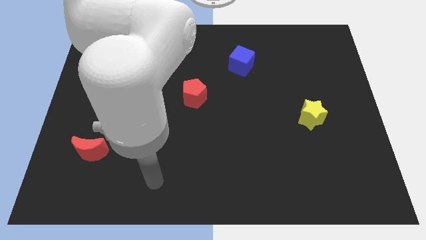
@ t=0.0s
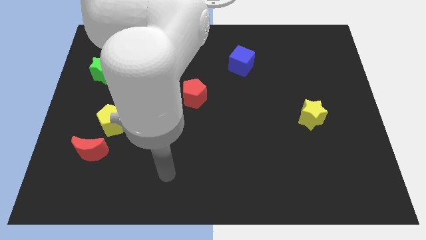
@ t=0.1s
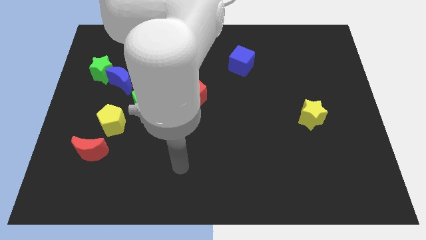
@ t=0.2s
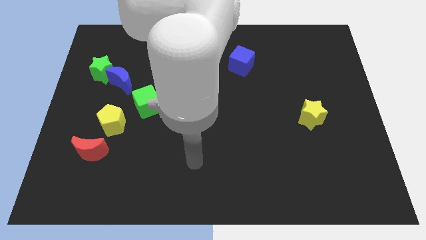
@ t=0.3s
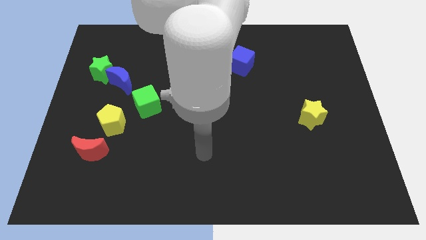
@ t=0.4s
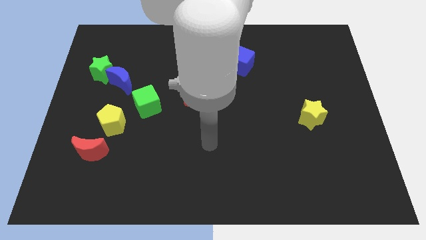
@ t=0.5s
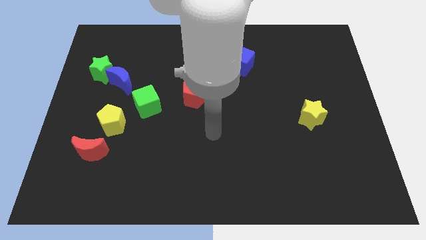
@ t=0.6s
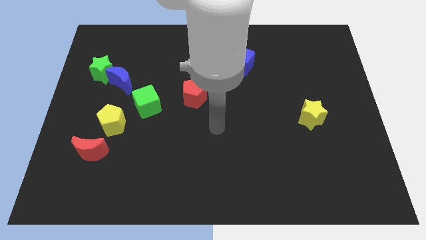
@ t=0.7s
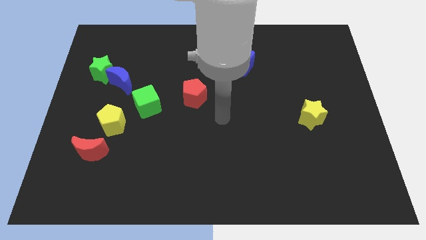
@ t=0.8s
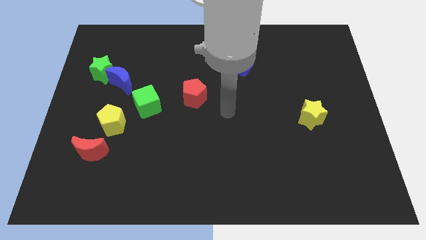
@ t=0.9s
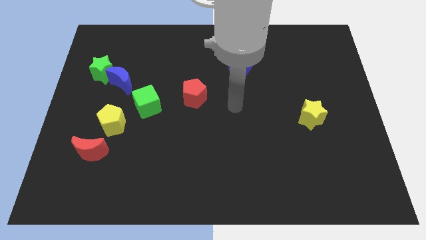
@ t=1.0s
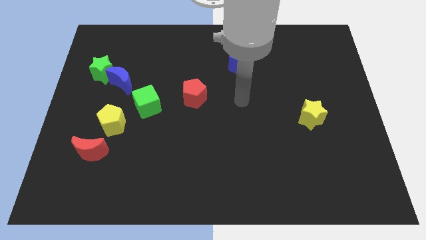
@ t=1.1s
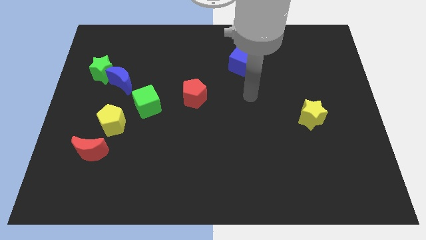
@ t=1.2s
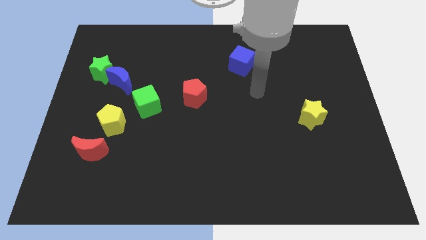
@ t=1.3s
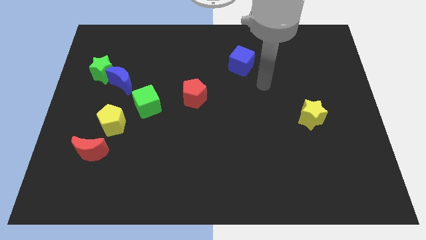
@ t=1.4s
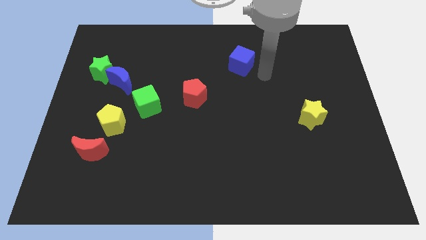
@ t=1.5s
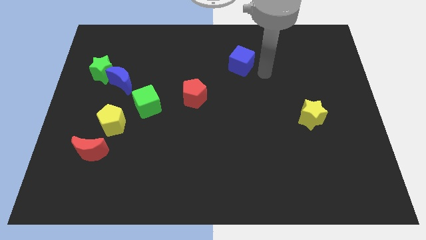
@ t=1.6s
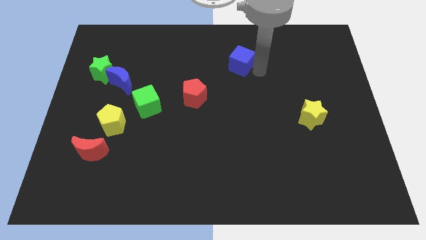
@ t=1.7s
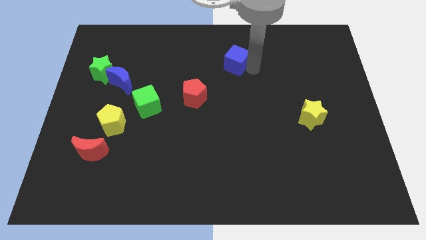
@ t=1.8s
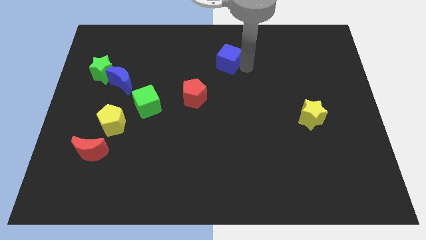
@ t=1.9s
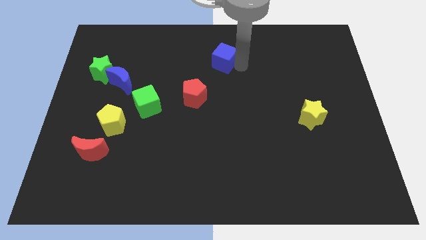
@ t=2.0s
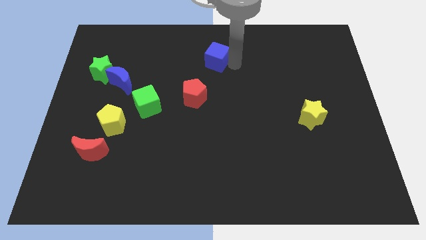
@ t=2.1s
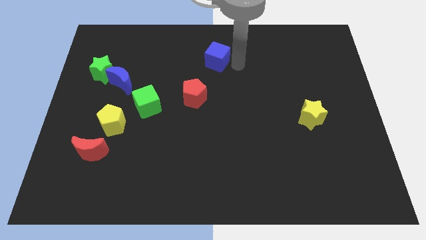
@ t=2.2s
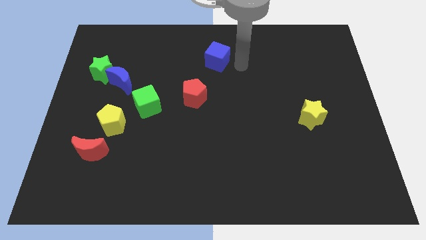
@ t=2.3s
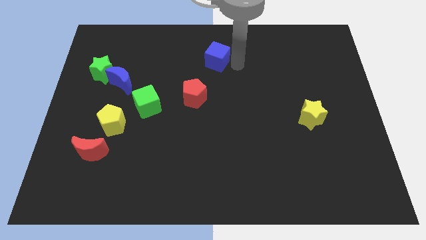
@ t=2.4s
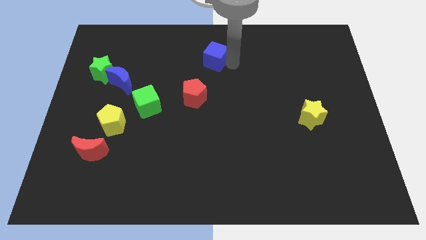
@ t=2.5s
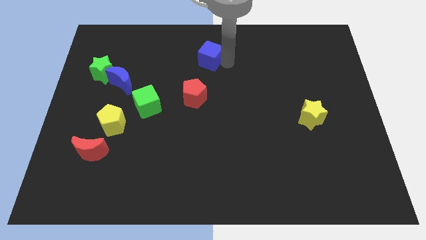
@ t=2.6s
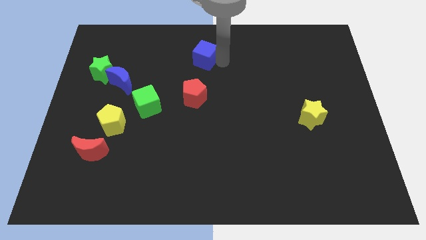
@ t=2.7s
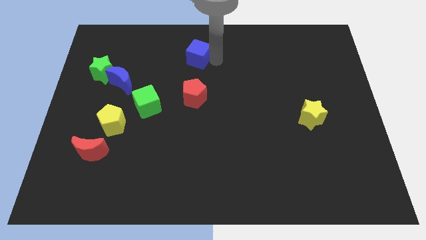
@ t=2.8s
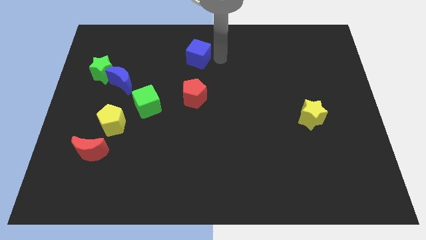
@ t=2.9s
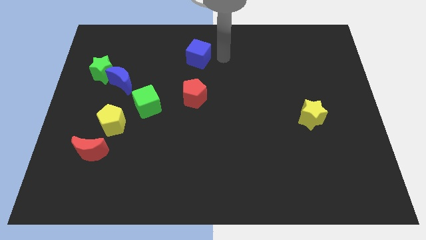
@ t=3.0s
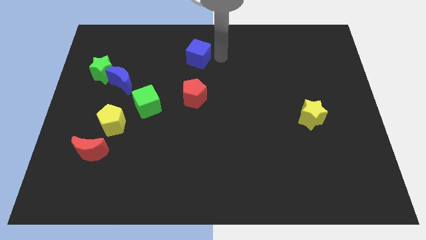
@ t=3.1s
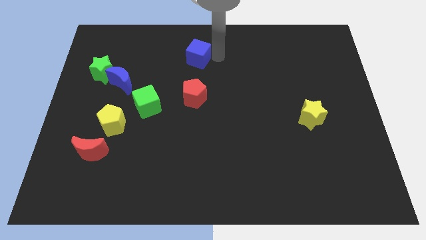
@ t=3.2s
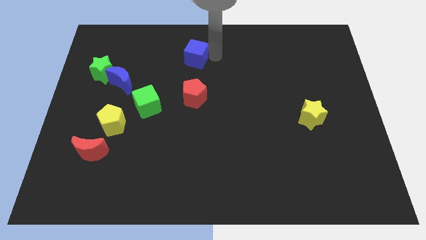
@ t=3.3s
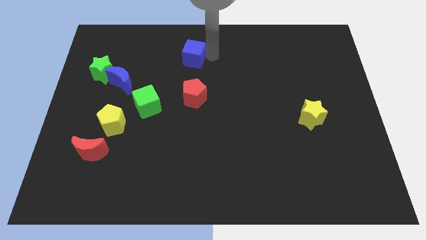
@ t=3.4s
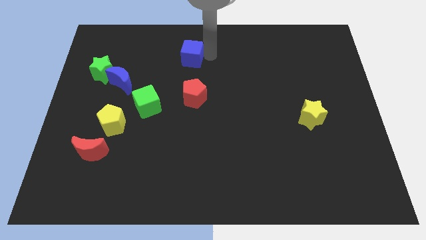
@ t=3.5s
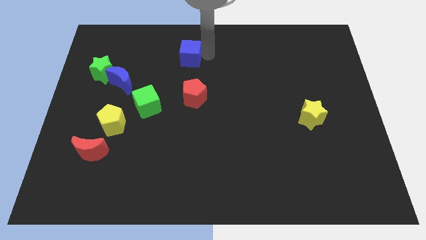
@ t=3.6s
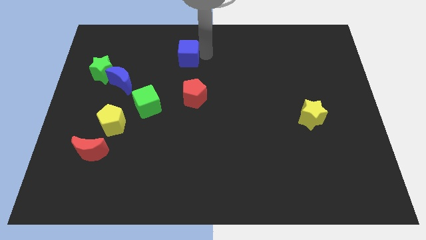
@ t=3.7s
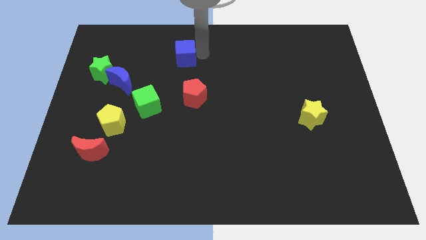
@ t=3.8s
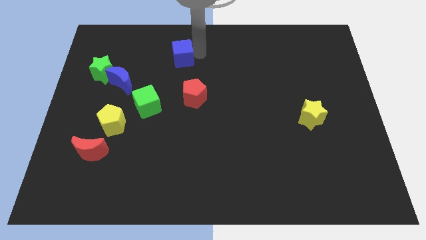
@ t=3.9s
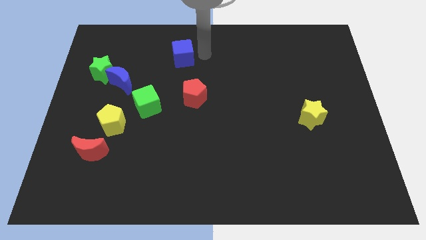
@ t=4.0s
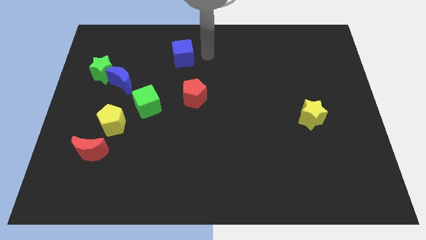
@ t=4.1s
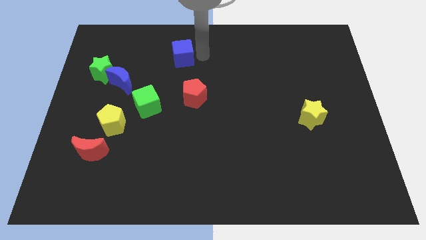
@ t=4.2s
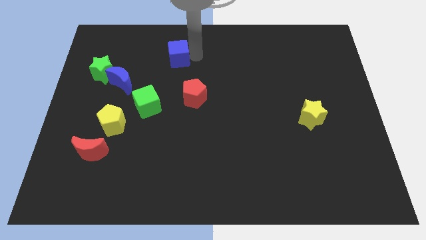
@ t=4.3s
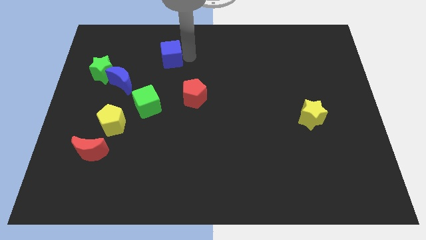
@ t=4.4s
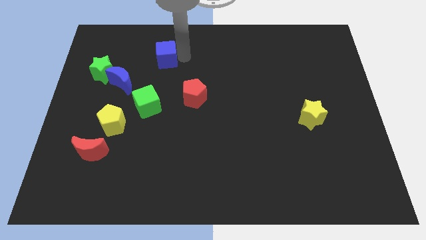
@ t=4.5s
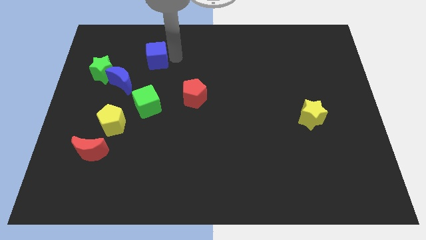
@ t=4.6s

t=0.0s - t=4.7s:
push the blue cube to the left

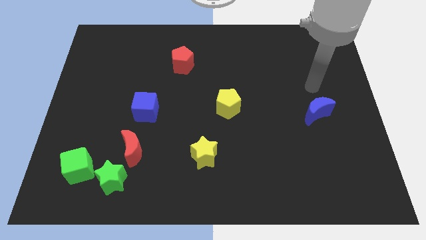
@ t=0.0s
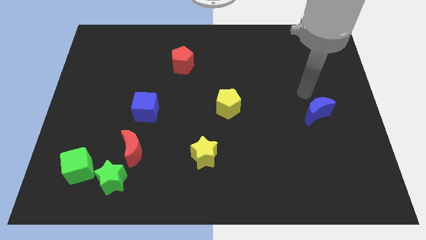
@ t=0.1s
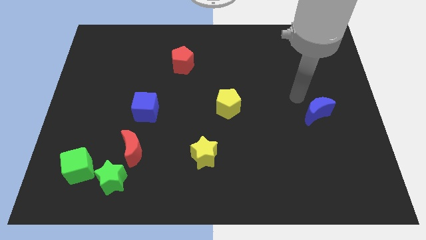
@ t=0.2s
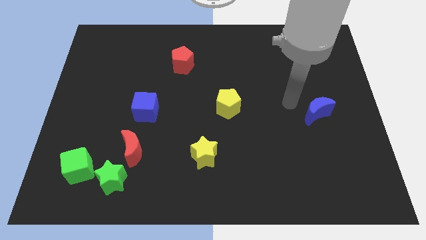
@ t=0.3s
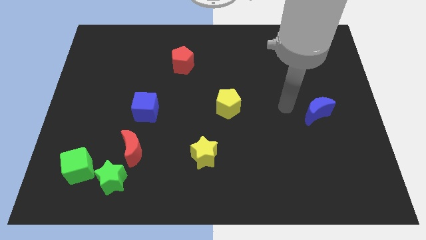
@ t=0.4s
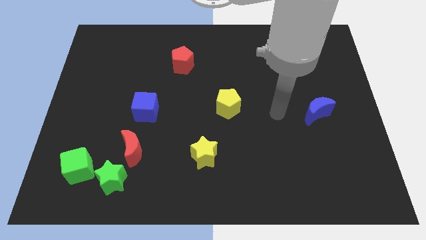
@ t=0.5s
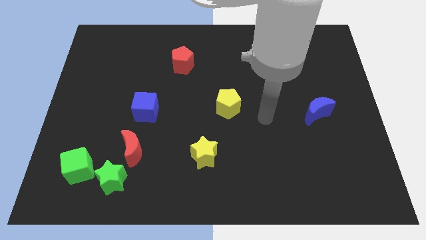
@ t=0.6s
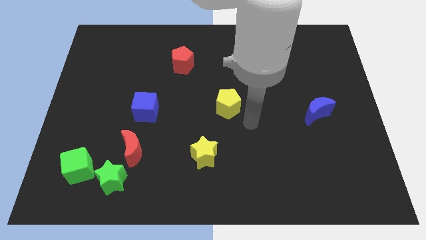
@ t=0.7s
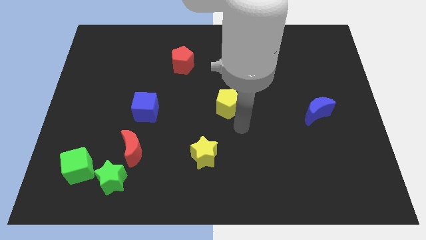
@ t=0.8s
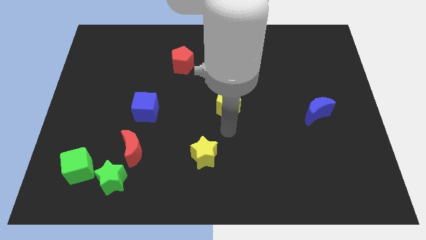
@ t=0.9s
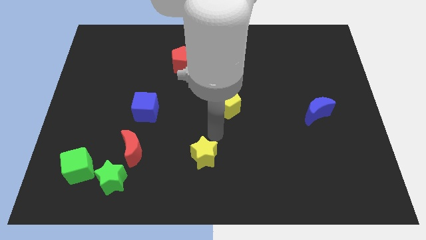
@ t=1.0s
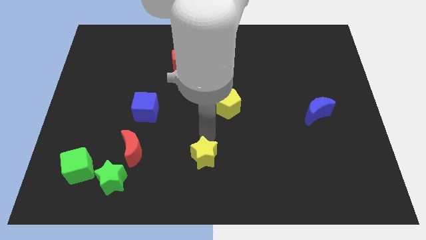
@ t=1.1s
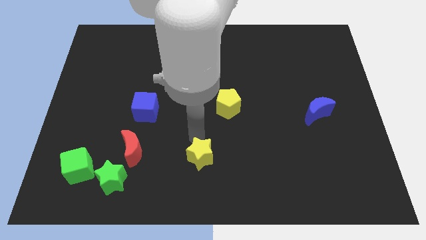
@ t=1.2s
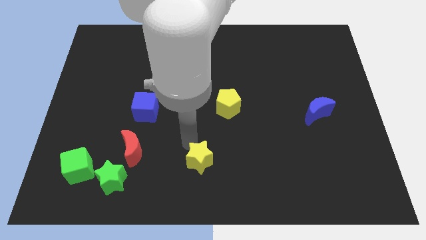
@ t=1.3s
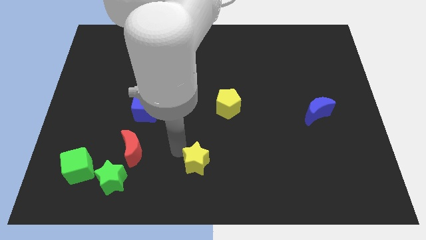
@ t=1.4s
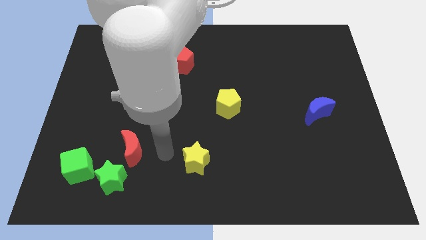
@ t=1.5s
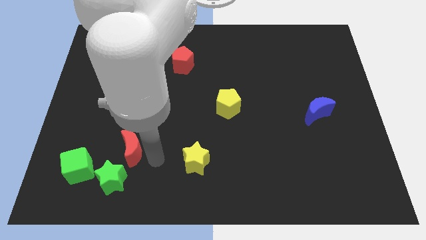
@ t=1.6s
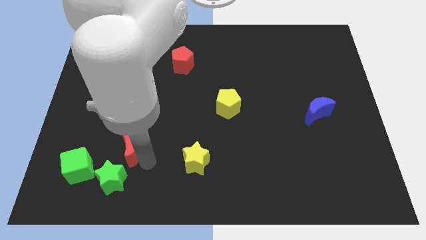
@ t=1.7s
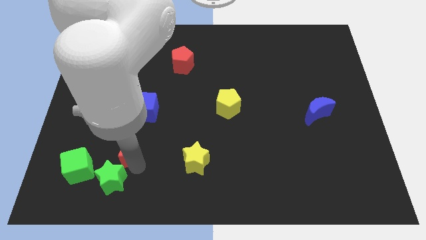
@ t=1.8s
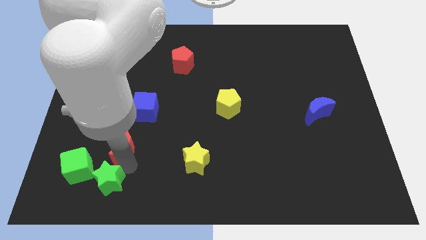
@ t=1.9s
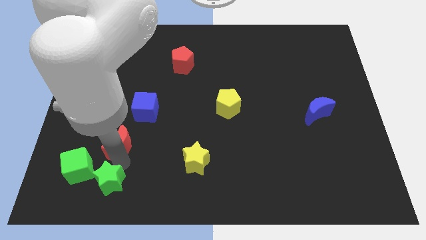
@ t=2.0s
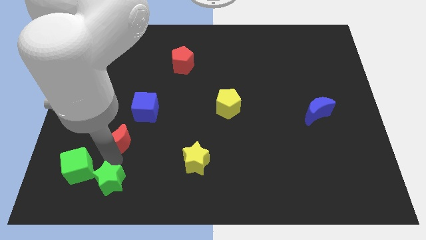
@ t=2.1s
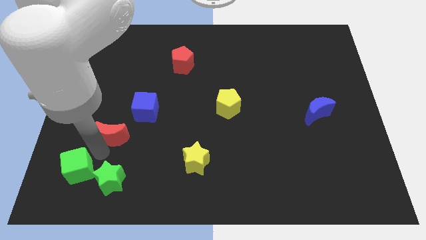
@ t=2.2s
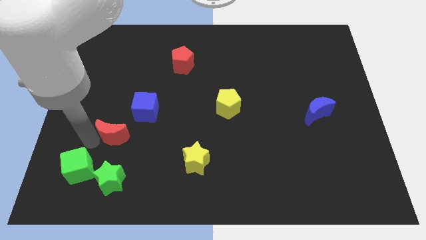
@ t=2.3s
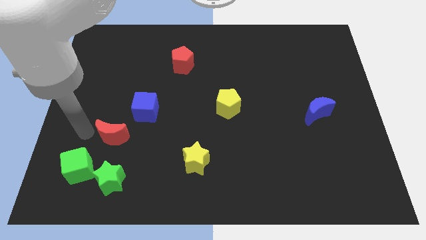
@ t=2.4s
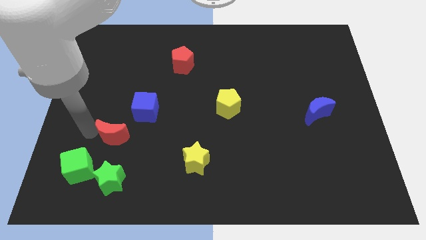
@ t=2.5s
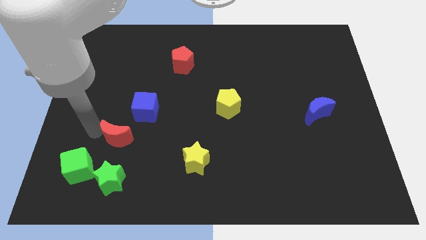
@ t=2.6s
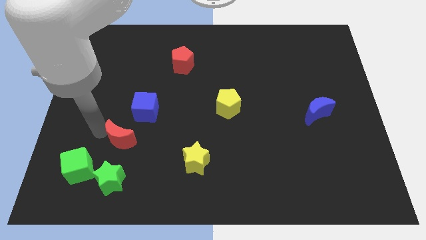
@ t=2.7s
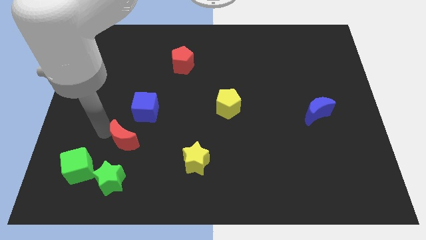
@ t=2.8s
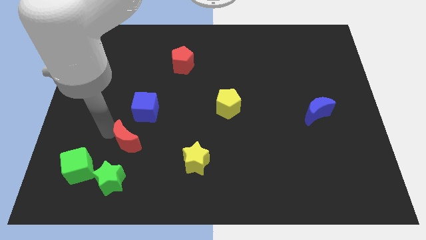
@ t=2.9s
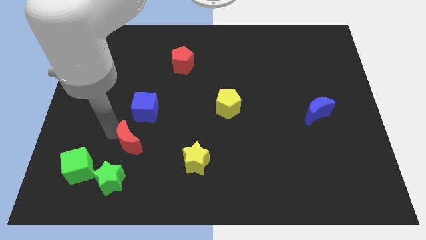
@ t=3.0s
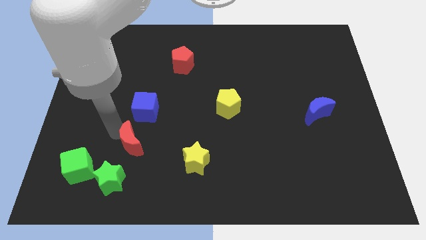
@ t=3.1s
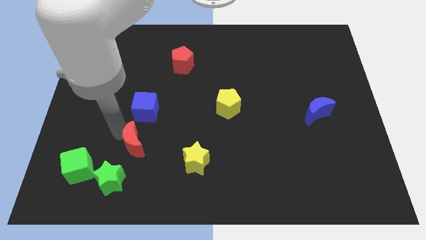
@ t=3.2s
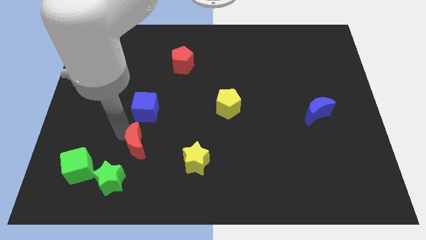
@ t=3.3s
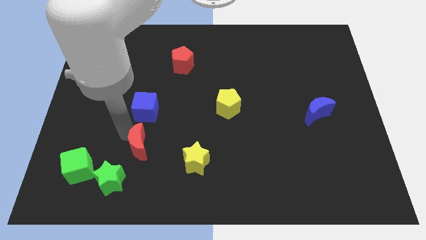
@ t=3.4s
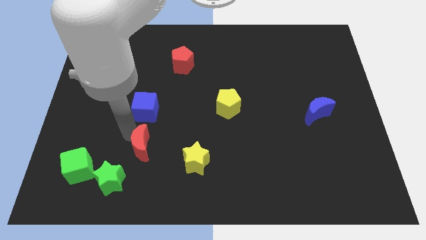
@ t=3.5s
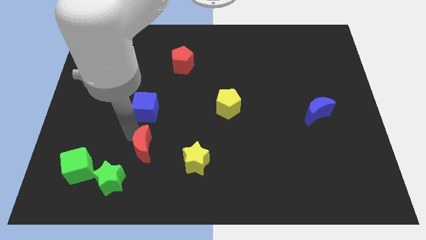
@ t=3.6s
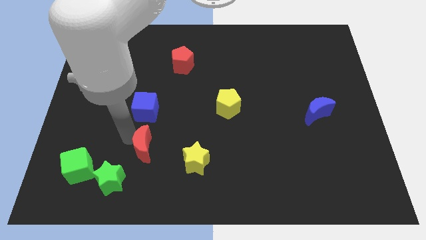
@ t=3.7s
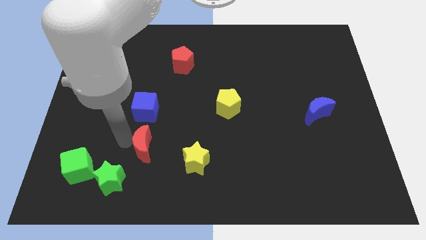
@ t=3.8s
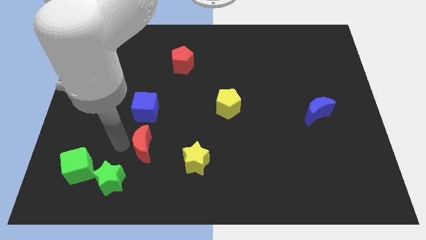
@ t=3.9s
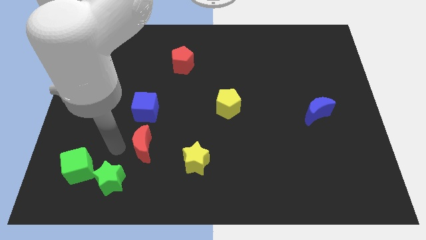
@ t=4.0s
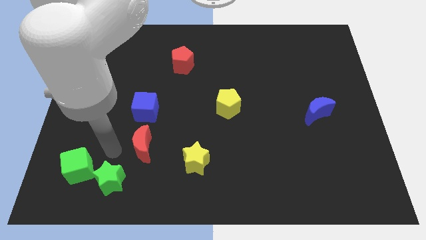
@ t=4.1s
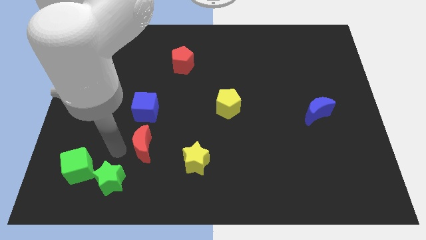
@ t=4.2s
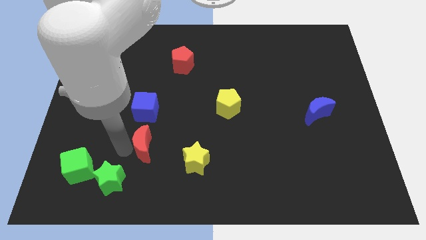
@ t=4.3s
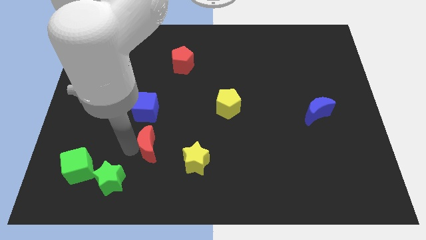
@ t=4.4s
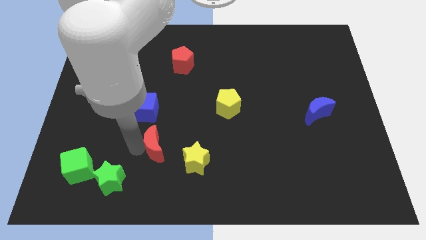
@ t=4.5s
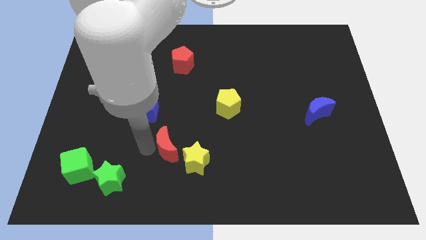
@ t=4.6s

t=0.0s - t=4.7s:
slightly push the red moon to the right
